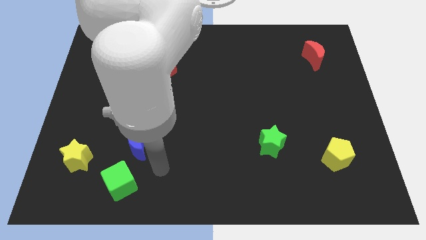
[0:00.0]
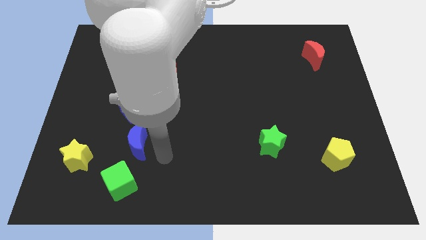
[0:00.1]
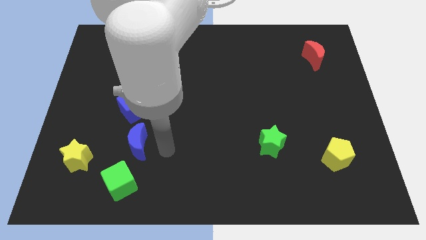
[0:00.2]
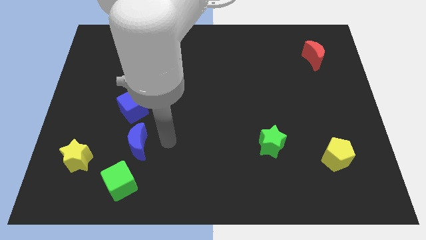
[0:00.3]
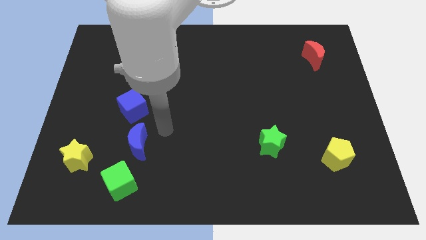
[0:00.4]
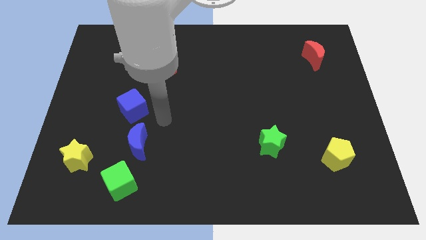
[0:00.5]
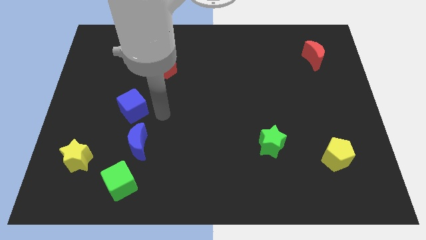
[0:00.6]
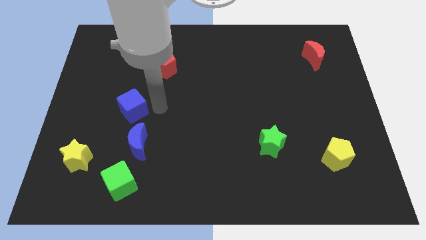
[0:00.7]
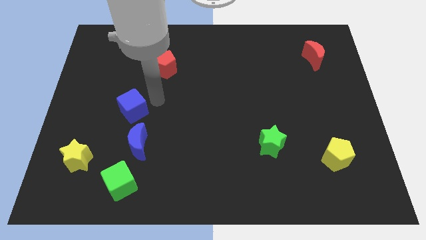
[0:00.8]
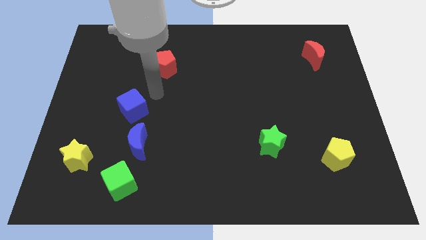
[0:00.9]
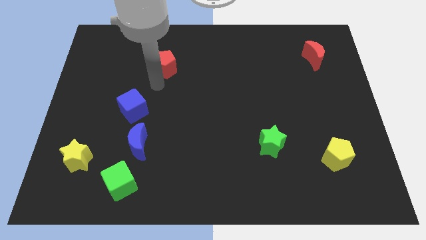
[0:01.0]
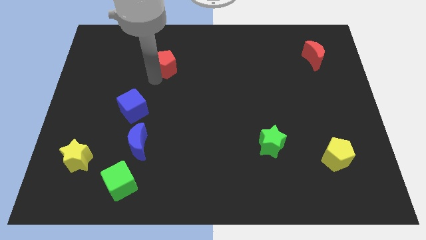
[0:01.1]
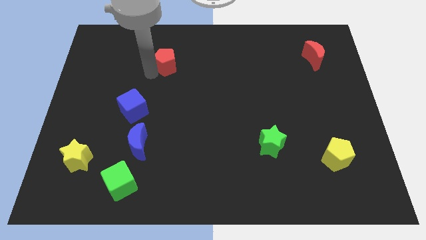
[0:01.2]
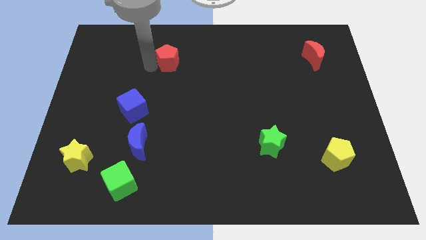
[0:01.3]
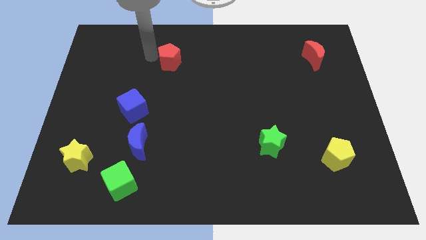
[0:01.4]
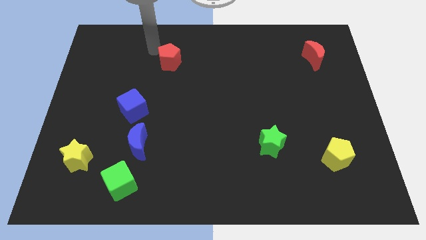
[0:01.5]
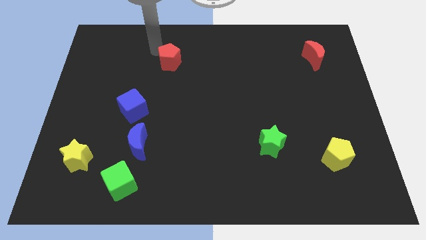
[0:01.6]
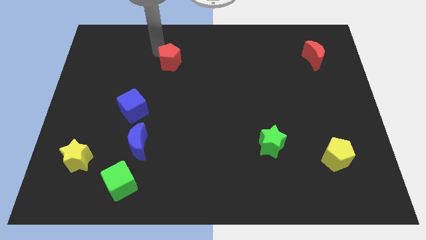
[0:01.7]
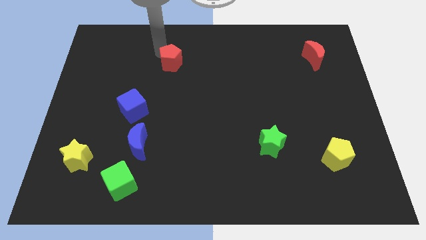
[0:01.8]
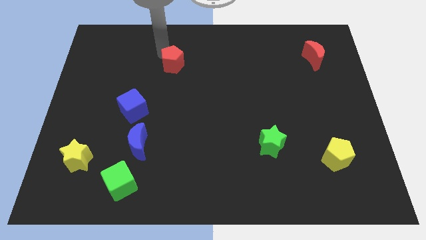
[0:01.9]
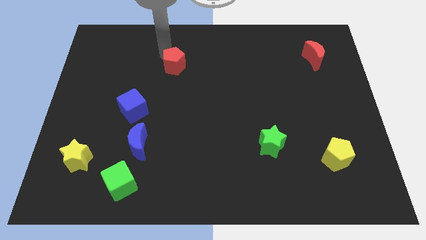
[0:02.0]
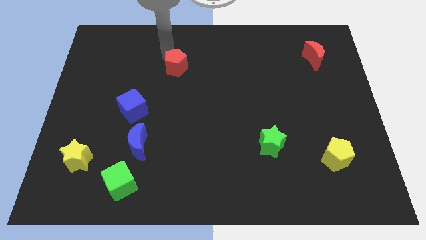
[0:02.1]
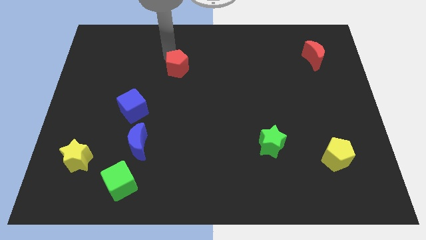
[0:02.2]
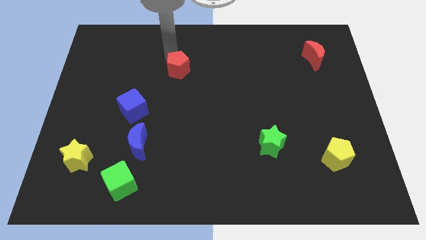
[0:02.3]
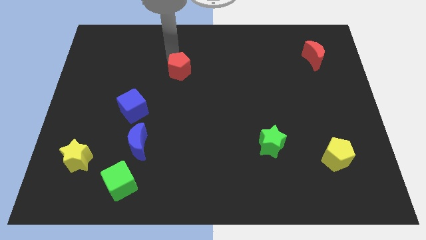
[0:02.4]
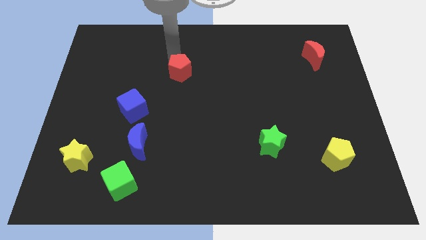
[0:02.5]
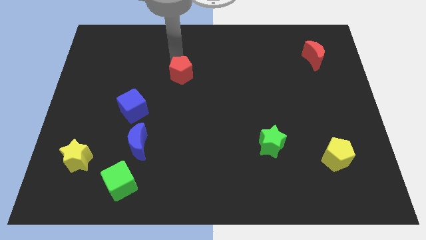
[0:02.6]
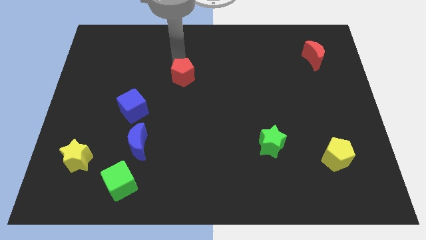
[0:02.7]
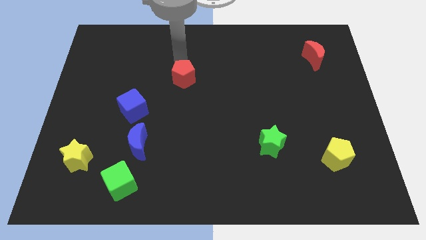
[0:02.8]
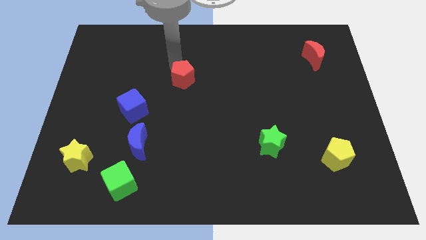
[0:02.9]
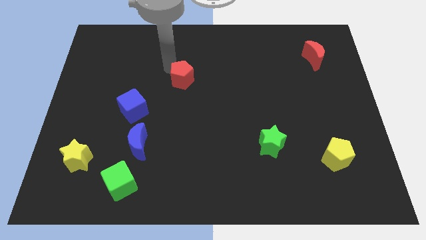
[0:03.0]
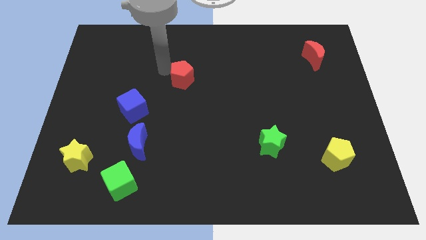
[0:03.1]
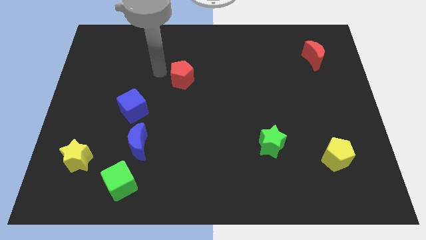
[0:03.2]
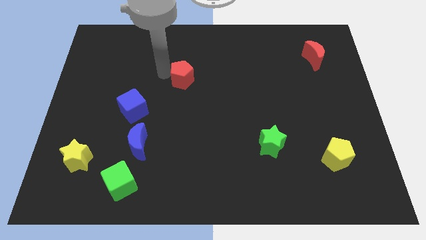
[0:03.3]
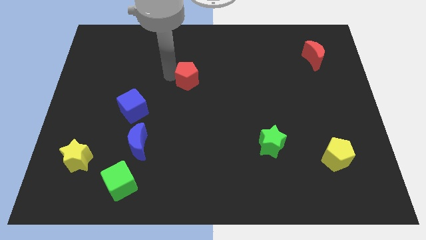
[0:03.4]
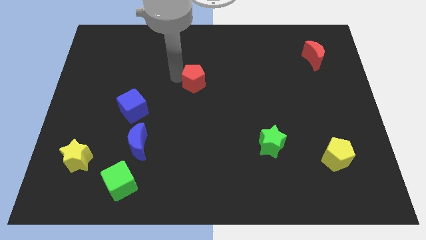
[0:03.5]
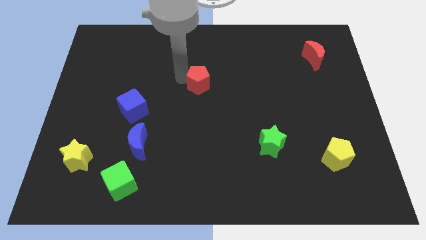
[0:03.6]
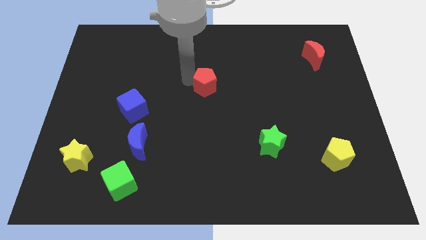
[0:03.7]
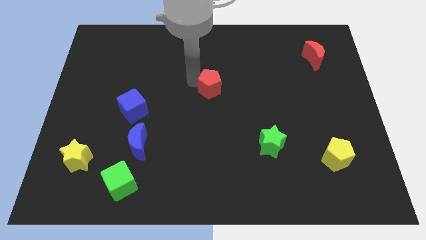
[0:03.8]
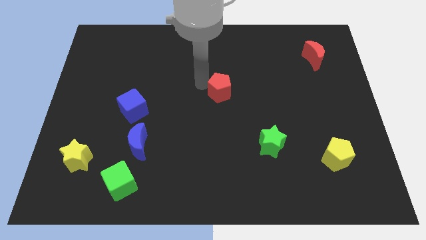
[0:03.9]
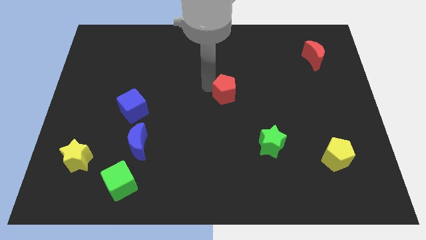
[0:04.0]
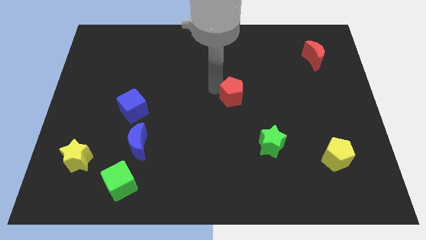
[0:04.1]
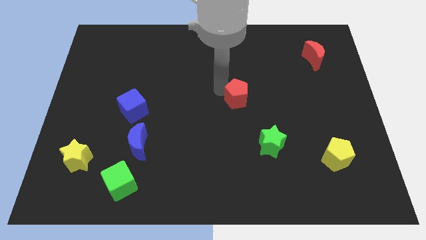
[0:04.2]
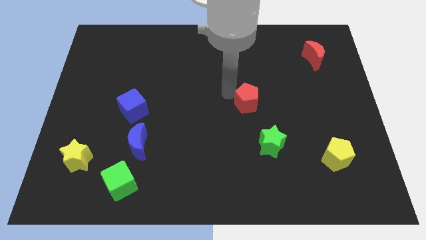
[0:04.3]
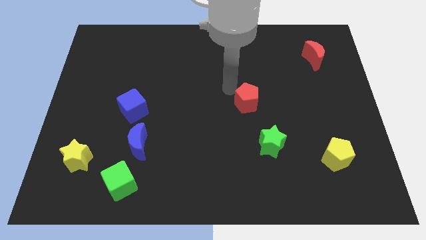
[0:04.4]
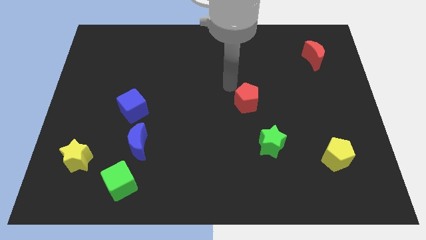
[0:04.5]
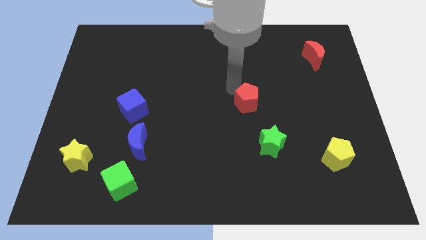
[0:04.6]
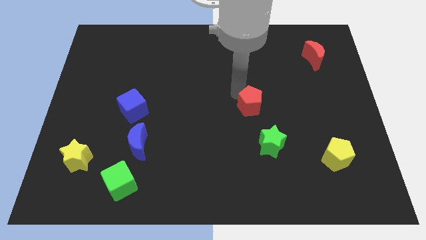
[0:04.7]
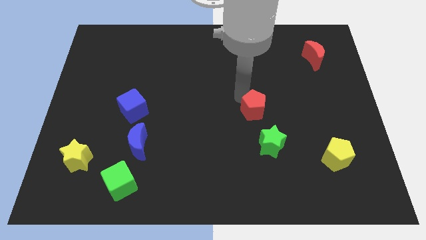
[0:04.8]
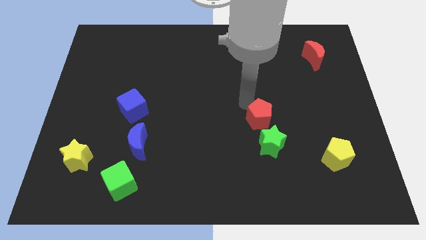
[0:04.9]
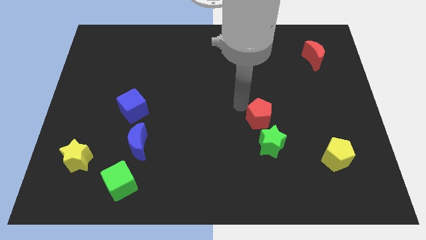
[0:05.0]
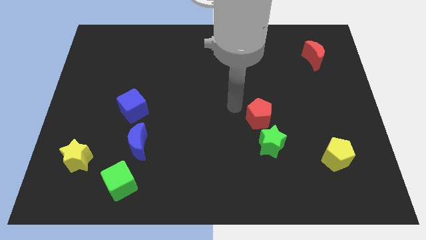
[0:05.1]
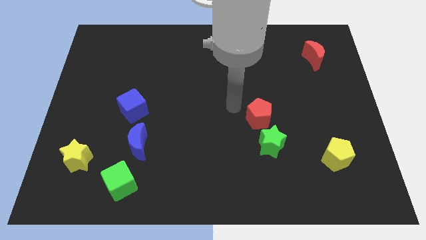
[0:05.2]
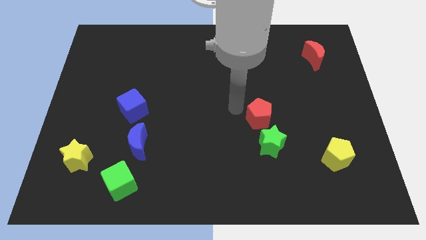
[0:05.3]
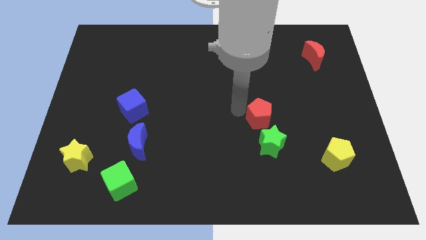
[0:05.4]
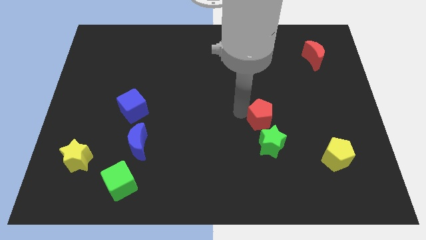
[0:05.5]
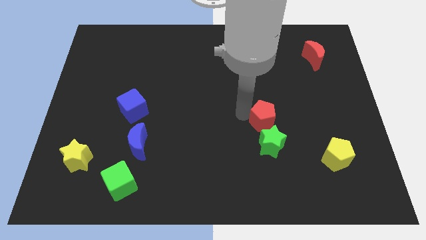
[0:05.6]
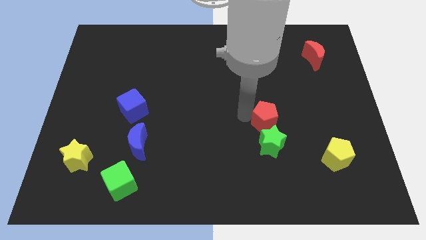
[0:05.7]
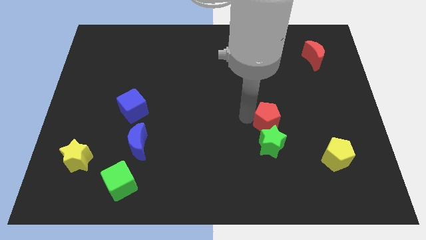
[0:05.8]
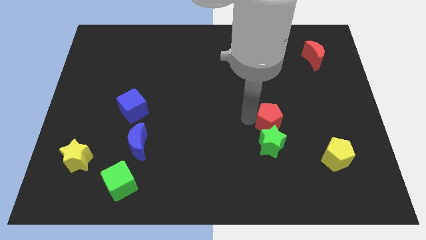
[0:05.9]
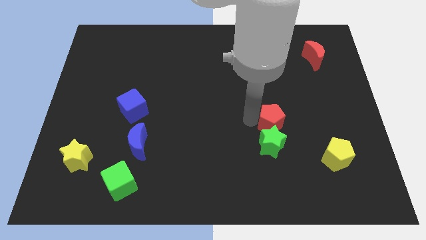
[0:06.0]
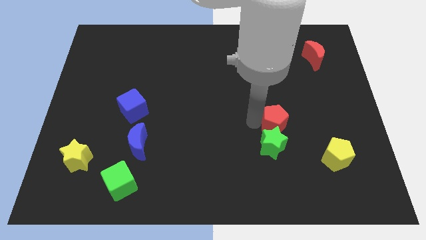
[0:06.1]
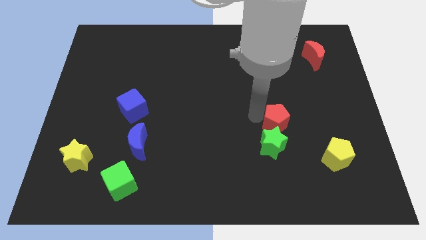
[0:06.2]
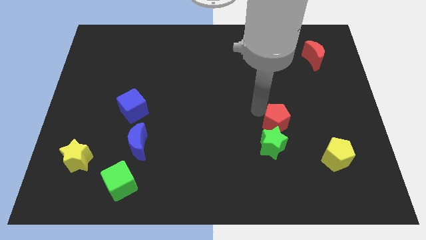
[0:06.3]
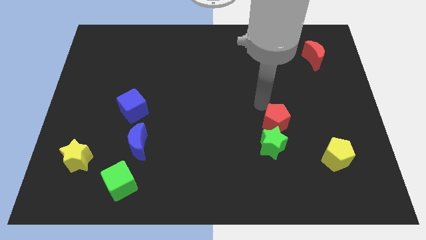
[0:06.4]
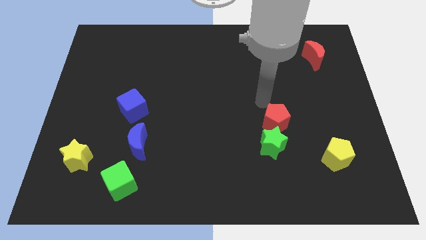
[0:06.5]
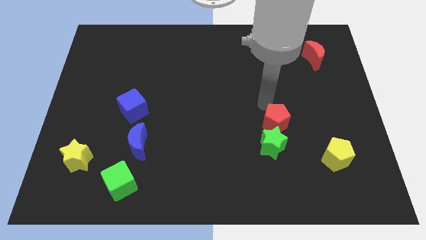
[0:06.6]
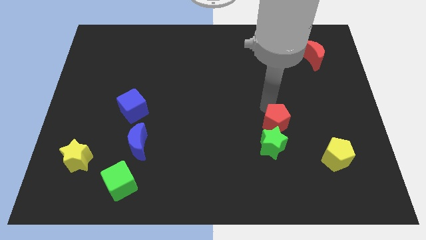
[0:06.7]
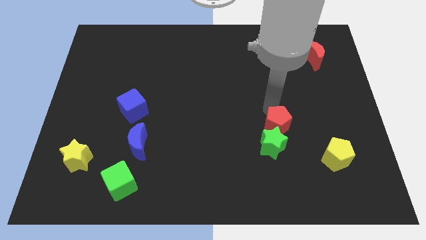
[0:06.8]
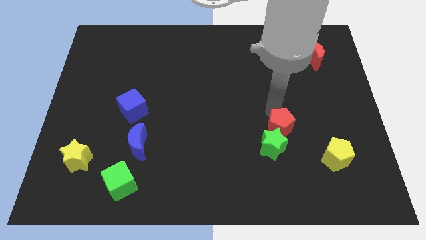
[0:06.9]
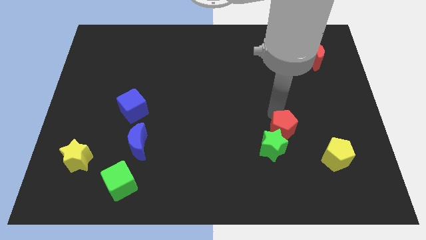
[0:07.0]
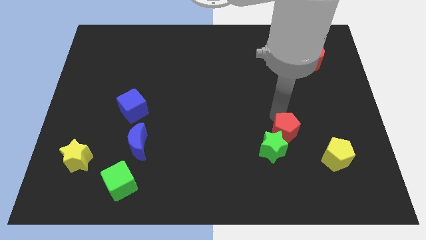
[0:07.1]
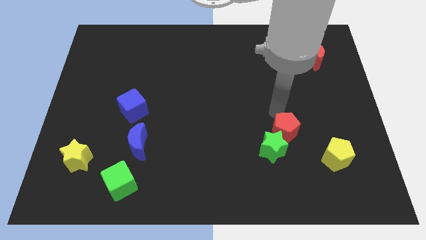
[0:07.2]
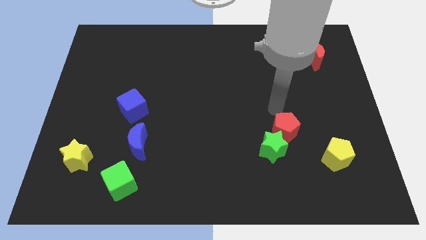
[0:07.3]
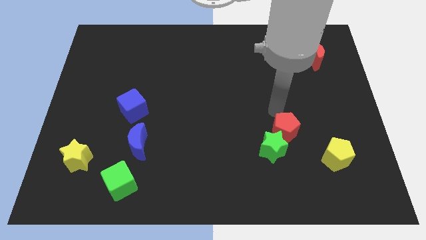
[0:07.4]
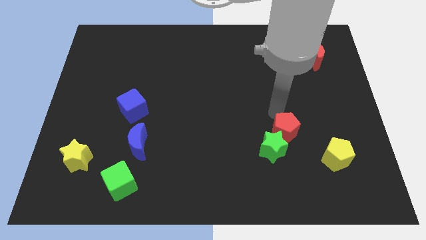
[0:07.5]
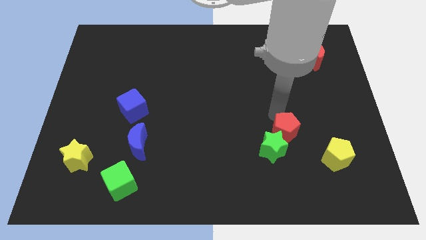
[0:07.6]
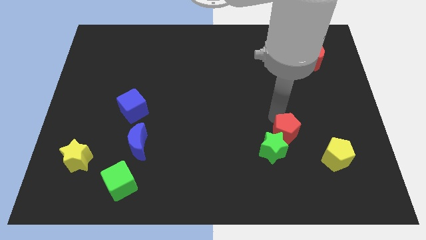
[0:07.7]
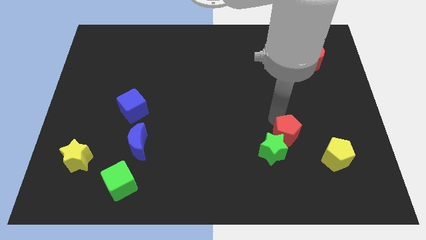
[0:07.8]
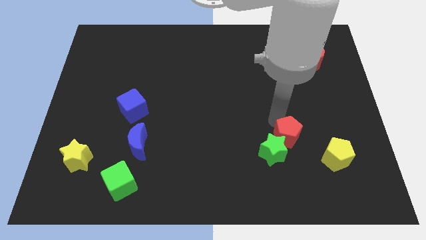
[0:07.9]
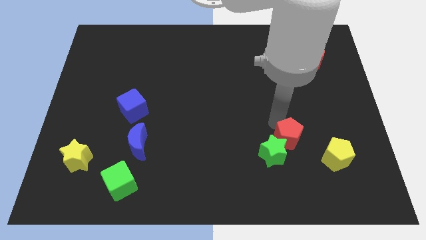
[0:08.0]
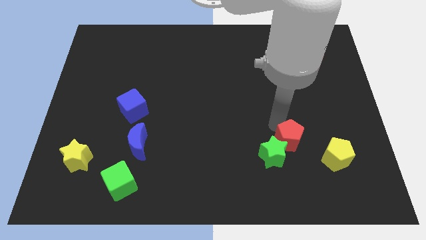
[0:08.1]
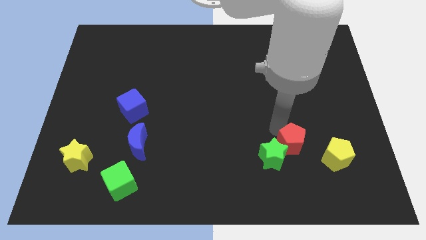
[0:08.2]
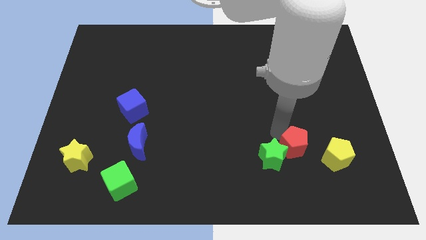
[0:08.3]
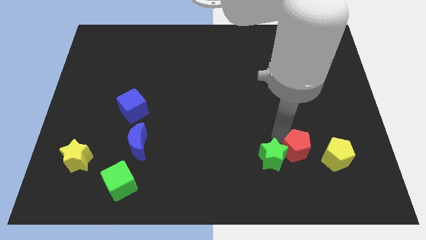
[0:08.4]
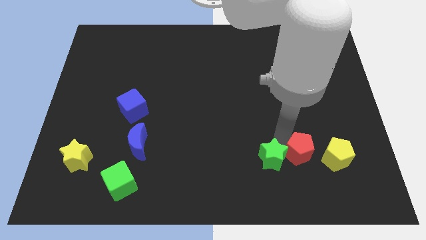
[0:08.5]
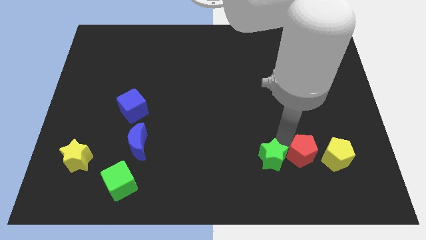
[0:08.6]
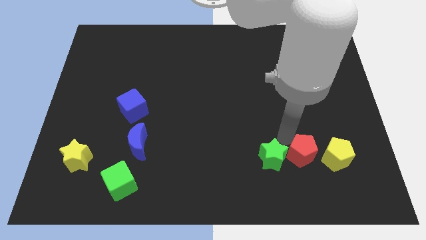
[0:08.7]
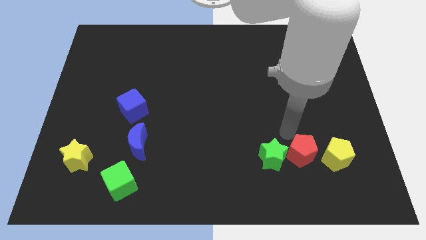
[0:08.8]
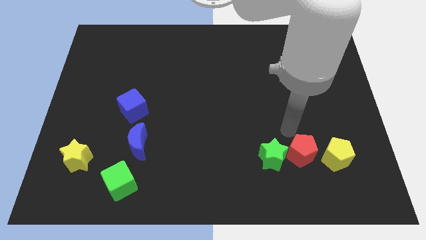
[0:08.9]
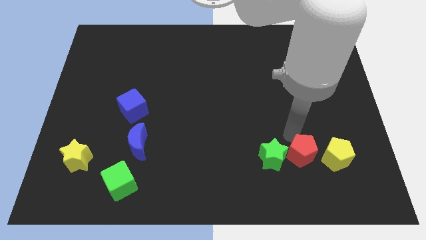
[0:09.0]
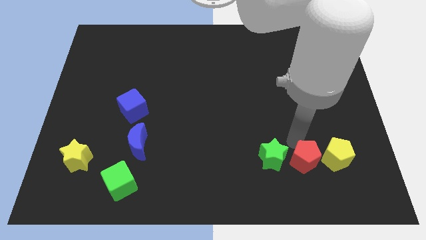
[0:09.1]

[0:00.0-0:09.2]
slide the red pentagon diagonally down and to the left of the yellow pentagon
